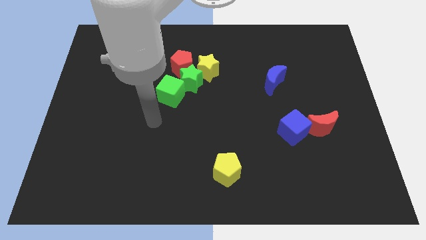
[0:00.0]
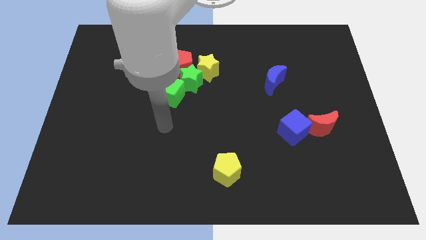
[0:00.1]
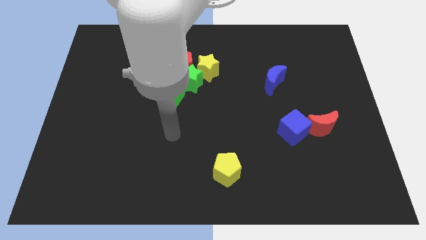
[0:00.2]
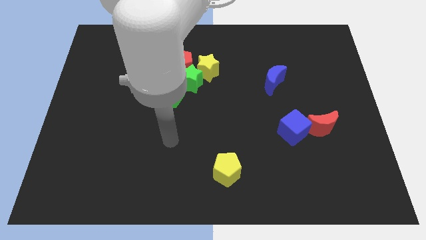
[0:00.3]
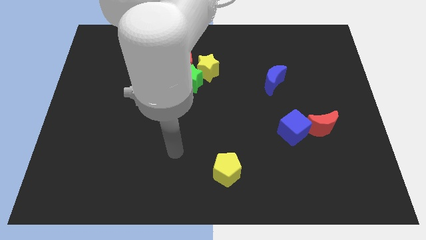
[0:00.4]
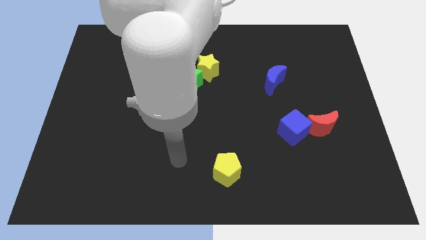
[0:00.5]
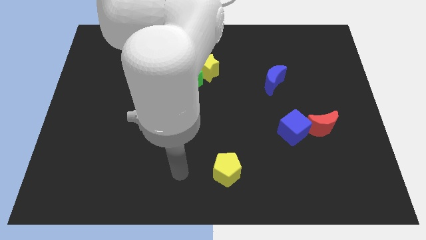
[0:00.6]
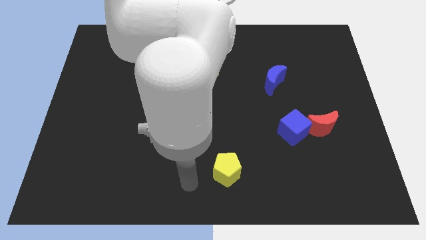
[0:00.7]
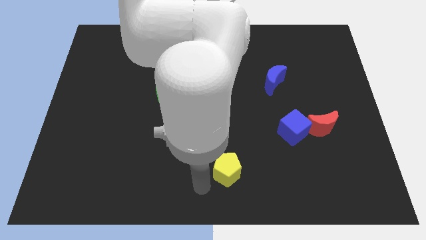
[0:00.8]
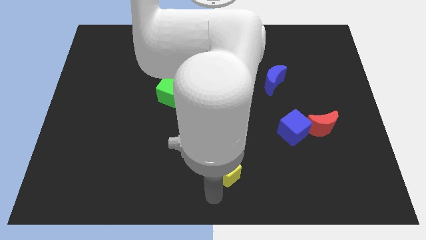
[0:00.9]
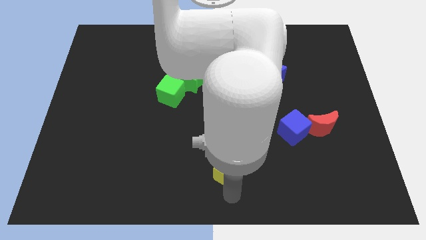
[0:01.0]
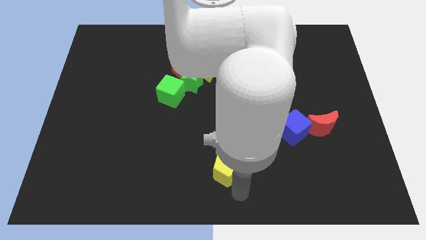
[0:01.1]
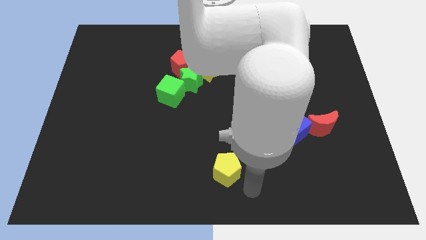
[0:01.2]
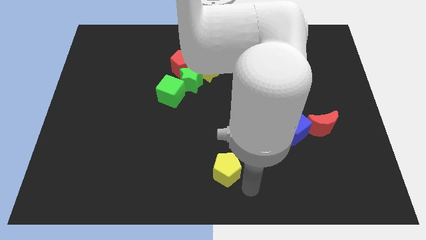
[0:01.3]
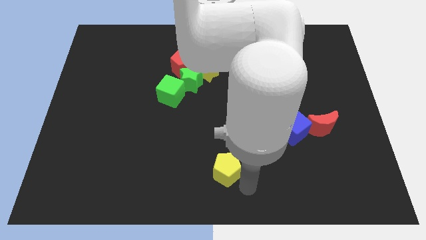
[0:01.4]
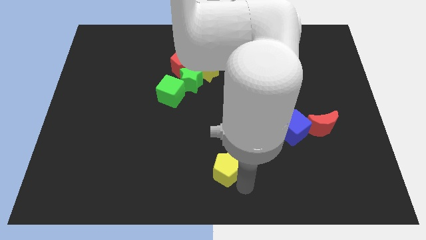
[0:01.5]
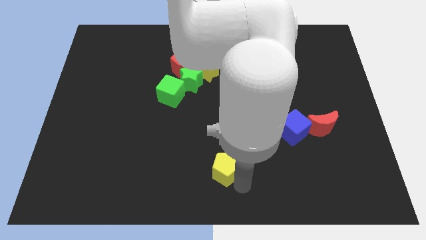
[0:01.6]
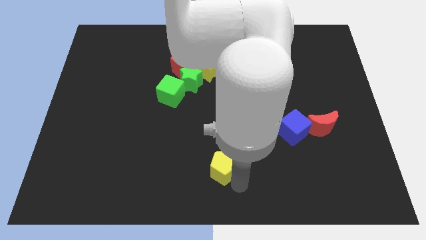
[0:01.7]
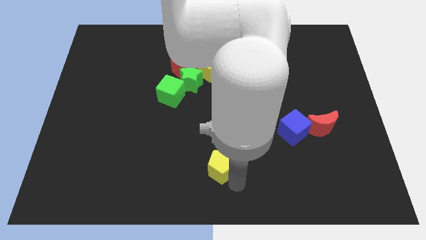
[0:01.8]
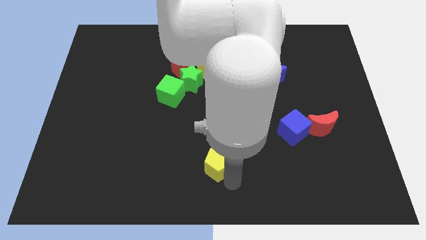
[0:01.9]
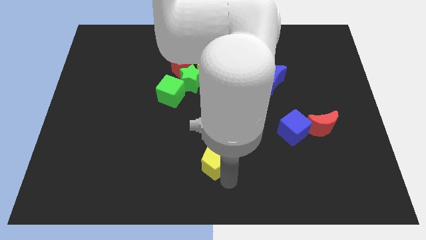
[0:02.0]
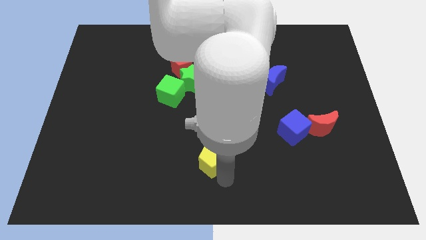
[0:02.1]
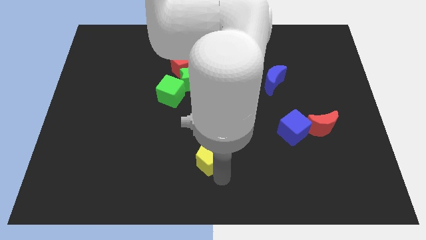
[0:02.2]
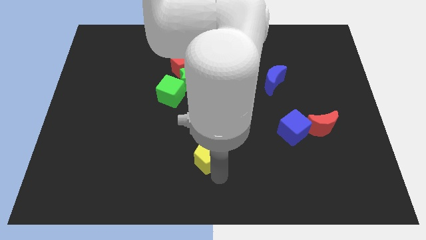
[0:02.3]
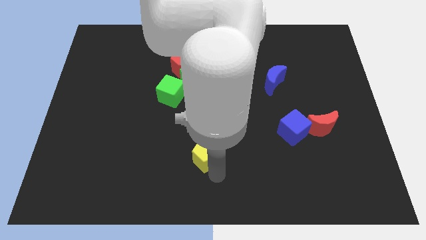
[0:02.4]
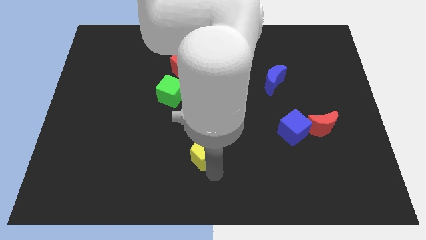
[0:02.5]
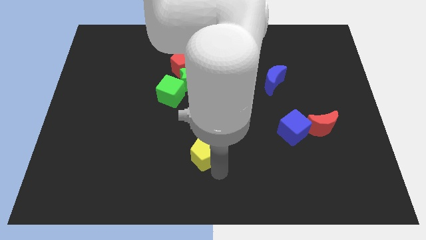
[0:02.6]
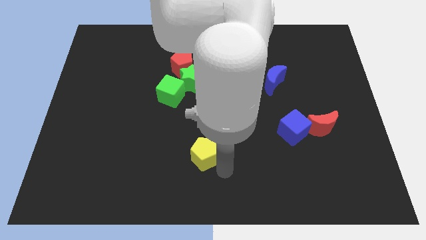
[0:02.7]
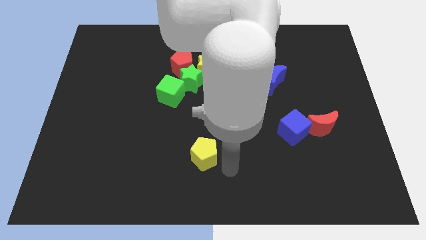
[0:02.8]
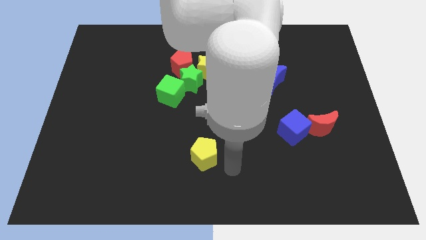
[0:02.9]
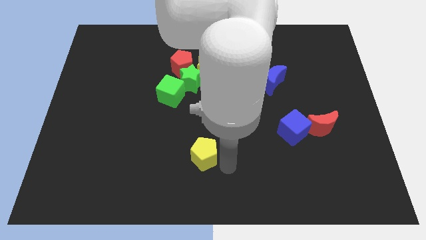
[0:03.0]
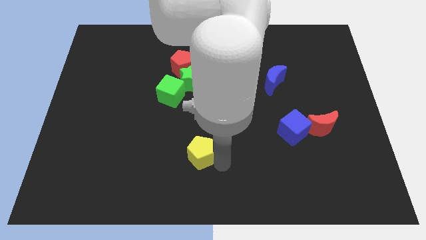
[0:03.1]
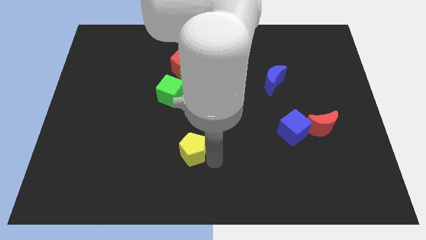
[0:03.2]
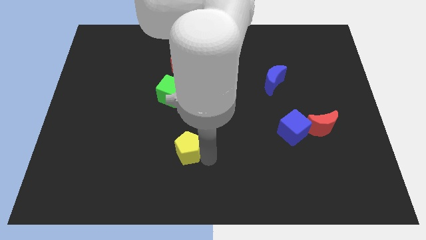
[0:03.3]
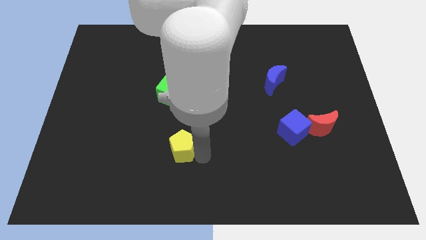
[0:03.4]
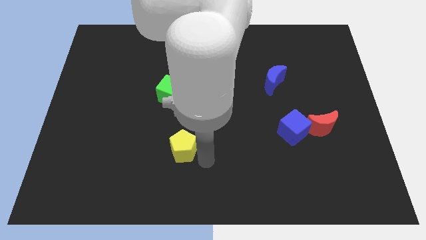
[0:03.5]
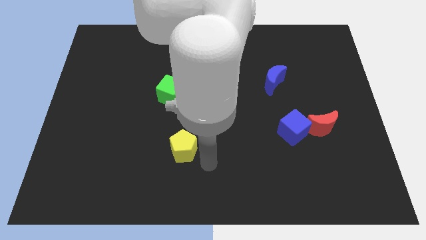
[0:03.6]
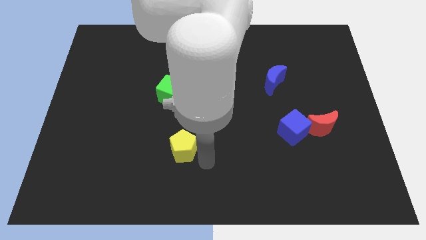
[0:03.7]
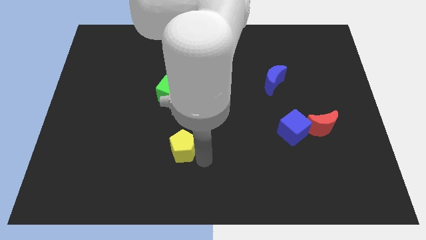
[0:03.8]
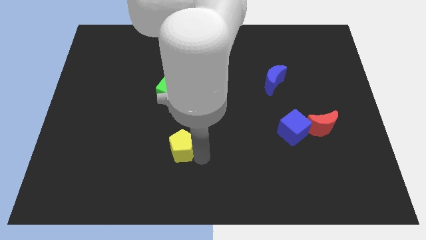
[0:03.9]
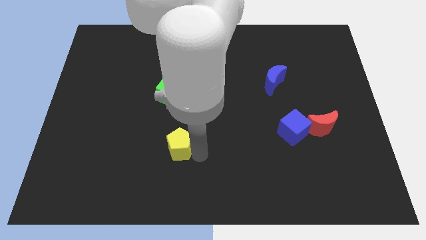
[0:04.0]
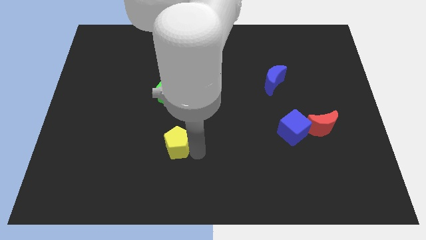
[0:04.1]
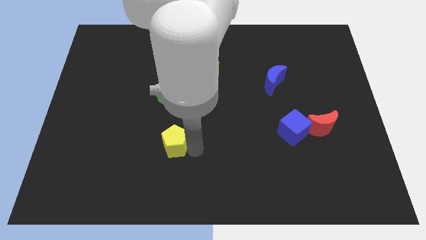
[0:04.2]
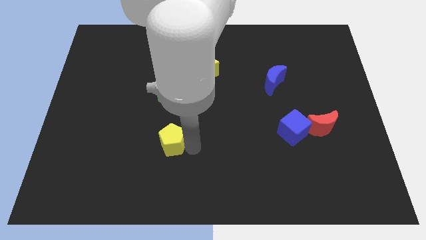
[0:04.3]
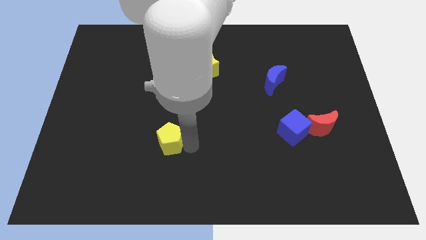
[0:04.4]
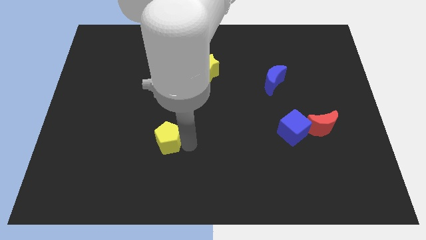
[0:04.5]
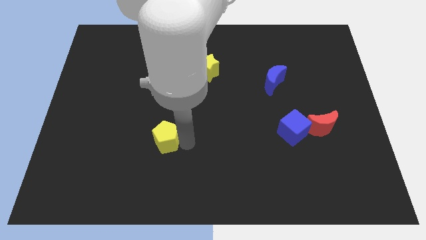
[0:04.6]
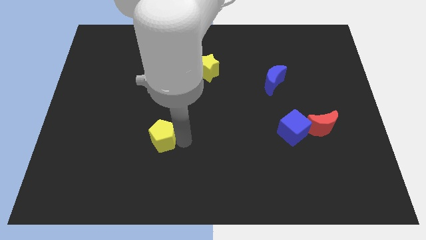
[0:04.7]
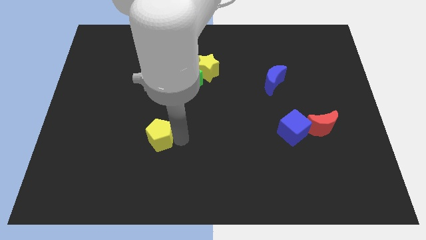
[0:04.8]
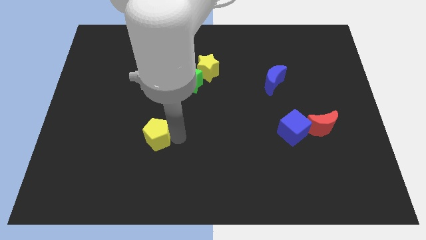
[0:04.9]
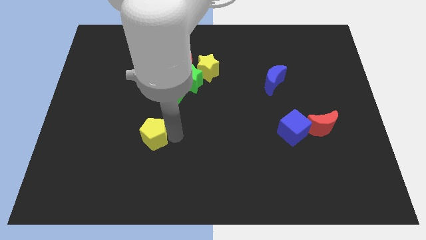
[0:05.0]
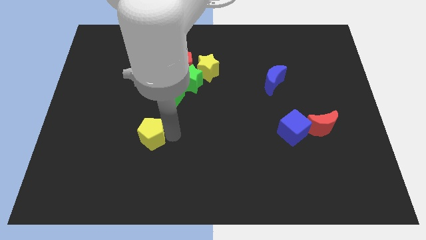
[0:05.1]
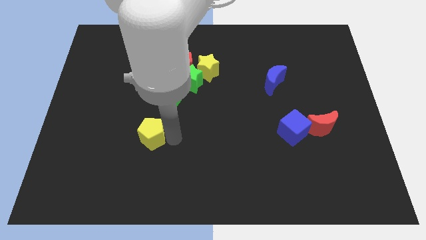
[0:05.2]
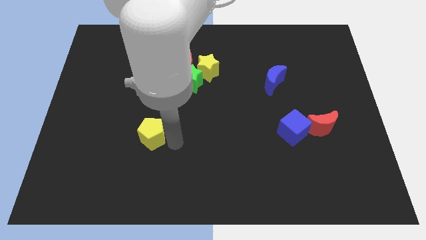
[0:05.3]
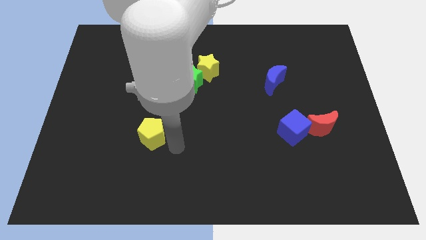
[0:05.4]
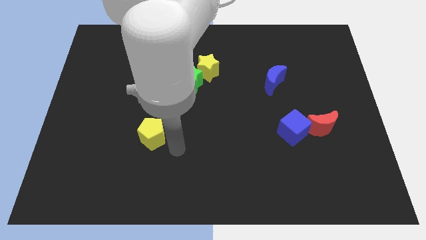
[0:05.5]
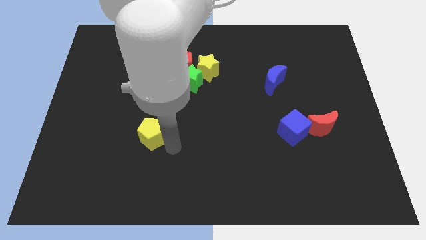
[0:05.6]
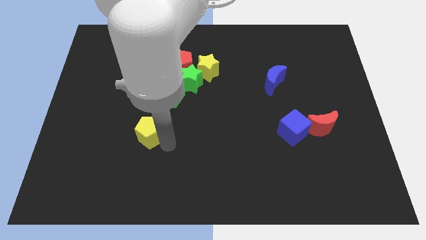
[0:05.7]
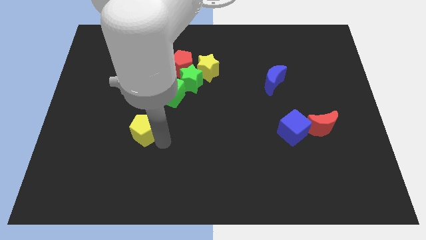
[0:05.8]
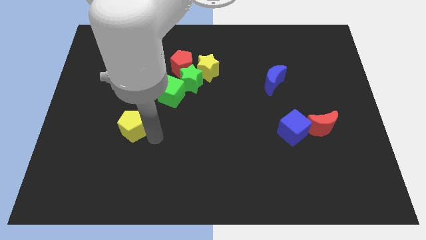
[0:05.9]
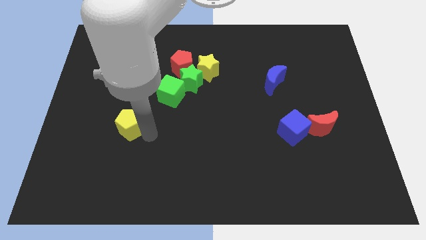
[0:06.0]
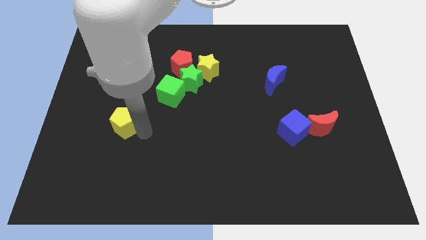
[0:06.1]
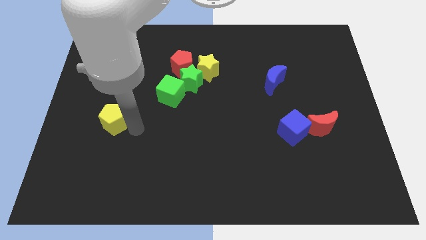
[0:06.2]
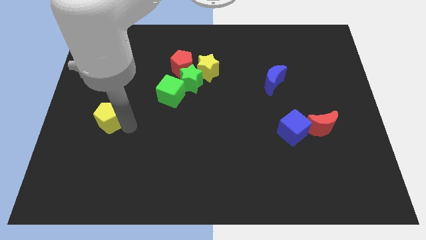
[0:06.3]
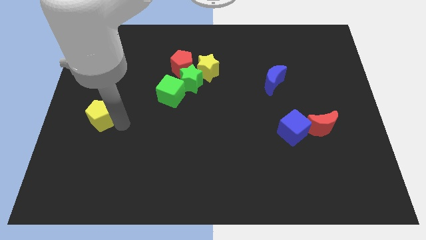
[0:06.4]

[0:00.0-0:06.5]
put the yellow pentagon to the left side of the board

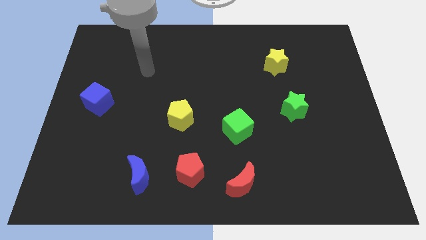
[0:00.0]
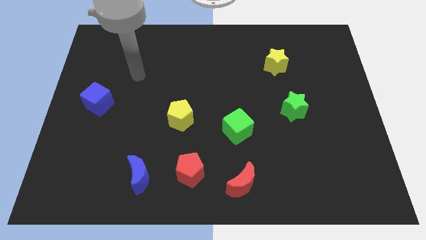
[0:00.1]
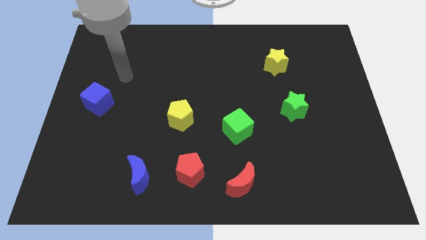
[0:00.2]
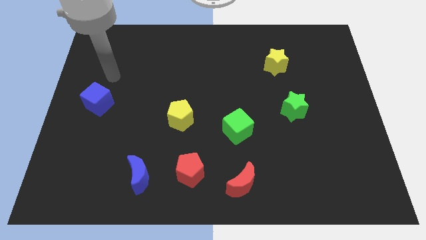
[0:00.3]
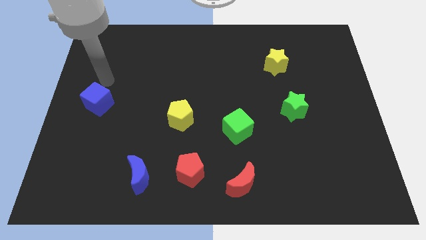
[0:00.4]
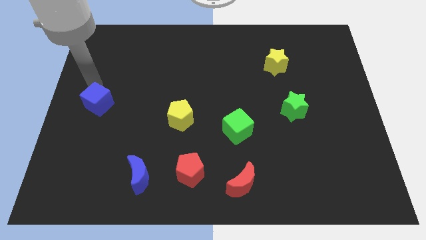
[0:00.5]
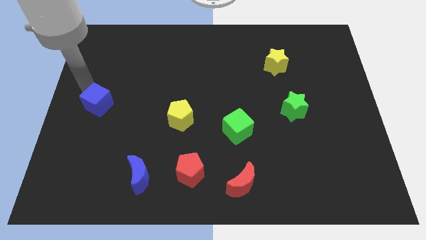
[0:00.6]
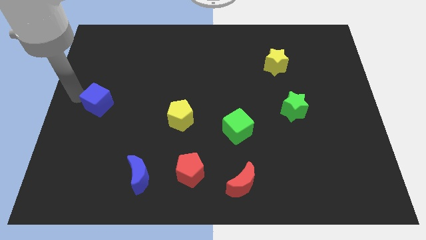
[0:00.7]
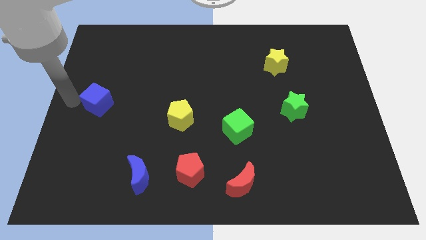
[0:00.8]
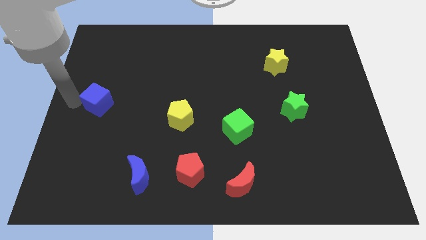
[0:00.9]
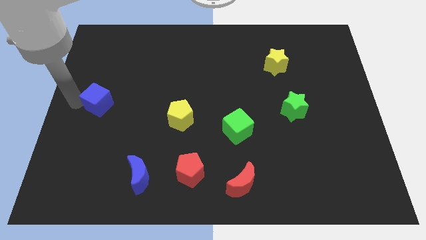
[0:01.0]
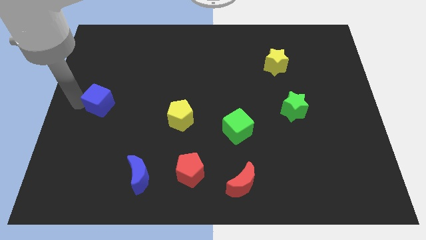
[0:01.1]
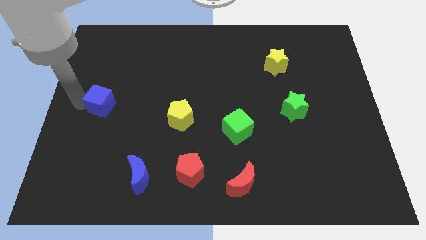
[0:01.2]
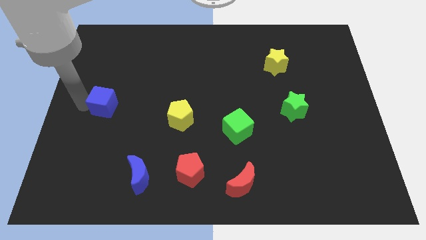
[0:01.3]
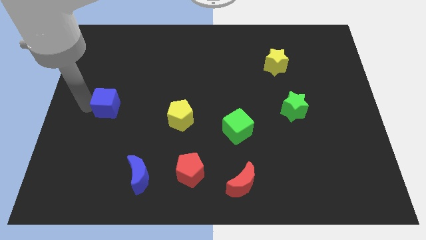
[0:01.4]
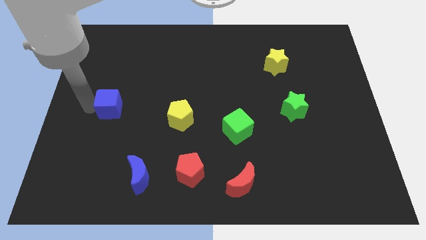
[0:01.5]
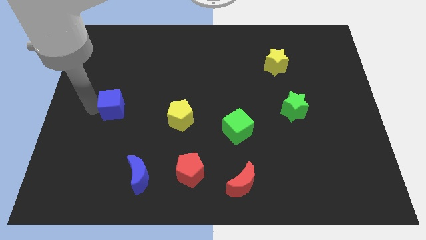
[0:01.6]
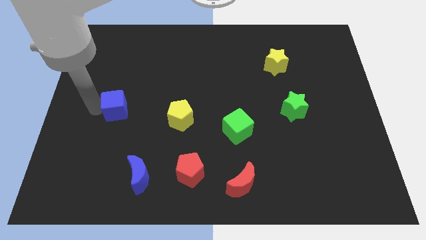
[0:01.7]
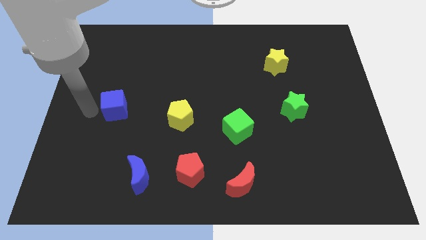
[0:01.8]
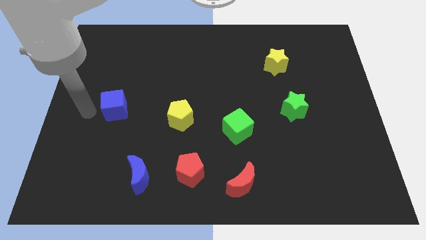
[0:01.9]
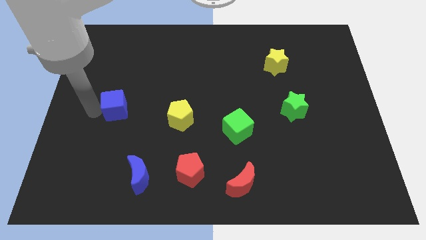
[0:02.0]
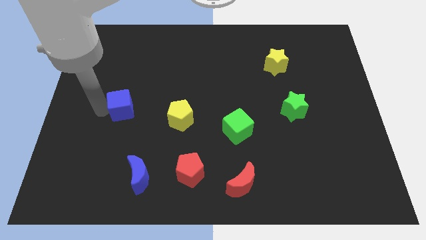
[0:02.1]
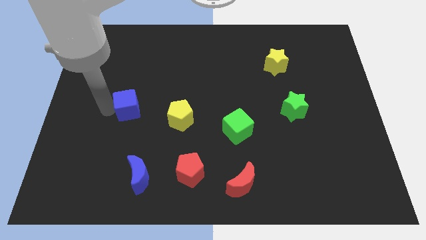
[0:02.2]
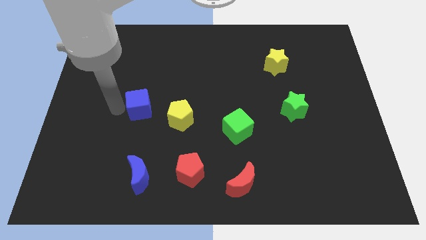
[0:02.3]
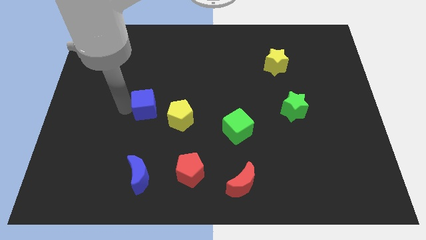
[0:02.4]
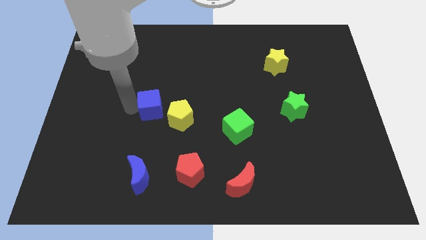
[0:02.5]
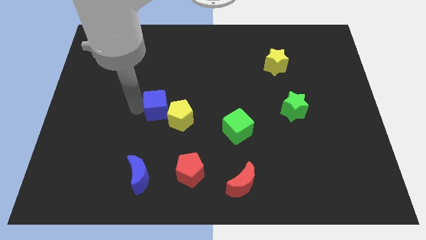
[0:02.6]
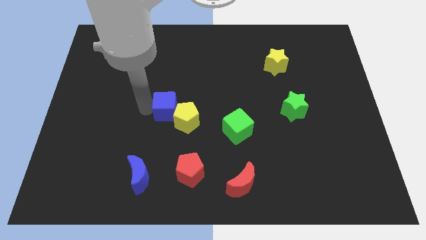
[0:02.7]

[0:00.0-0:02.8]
slide the blue cube to the center of the board
